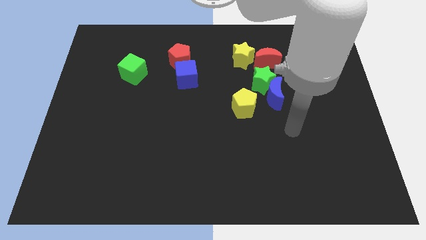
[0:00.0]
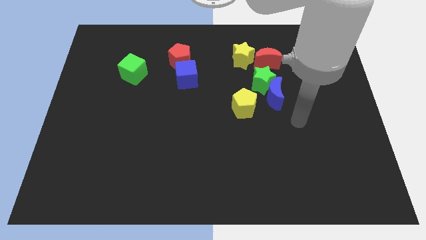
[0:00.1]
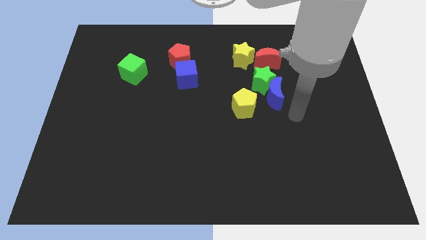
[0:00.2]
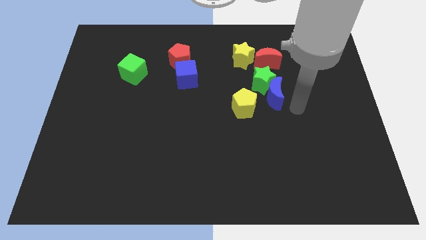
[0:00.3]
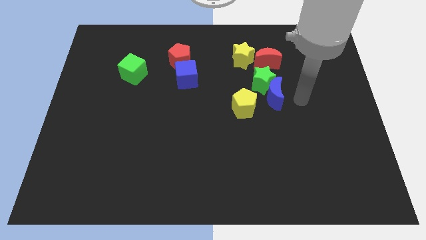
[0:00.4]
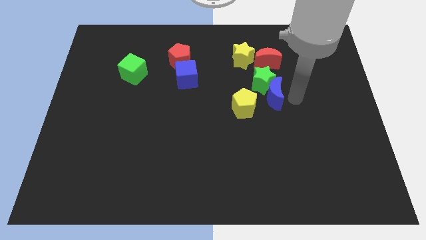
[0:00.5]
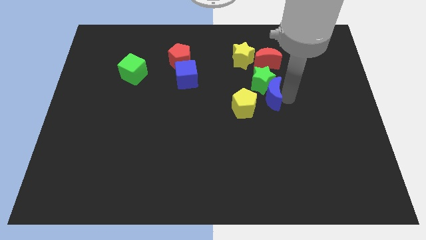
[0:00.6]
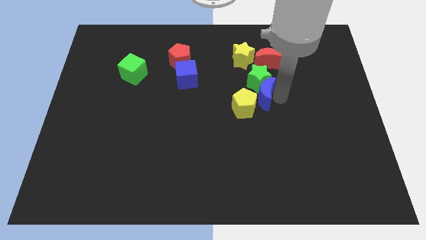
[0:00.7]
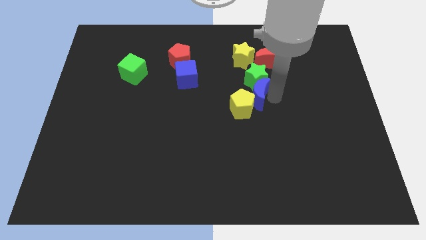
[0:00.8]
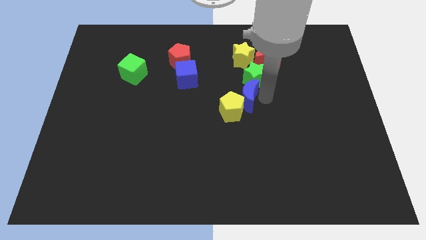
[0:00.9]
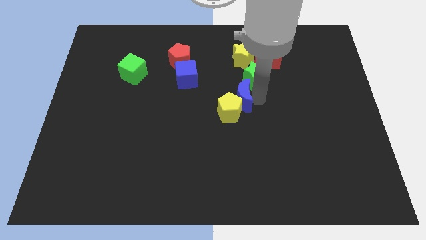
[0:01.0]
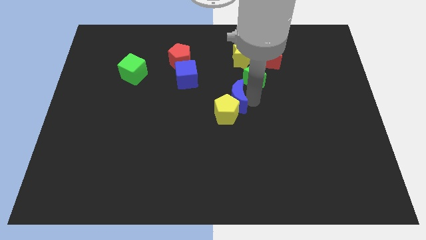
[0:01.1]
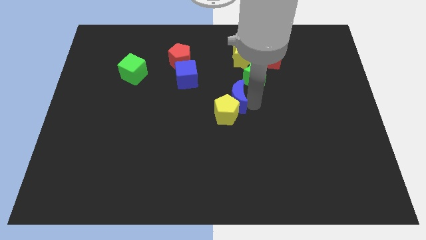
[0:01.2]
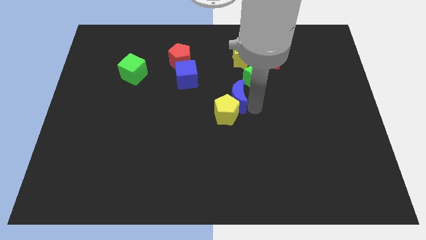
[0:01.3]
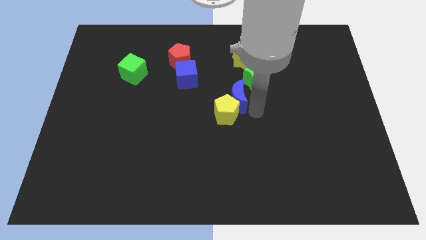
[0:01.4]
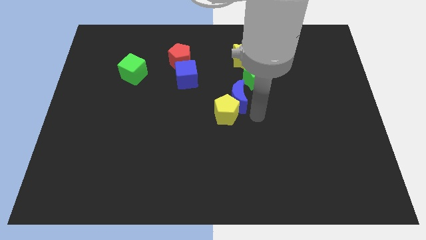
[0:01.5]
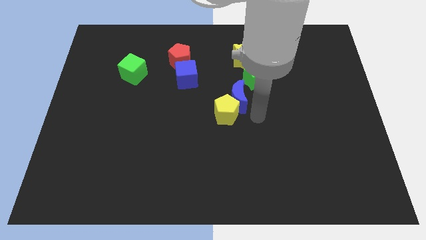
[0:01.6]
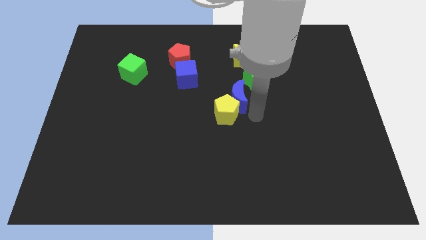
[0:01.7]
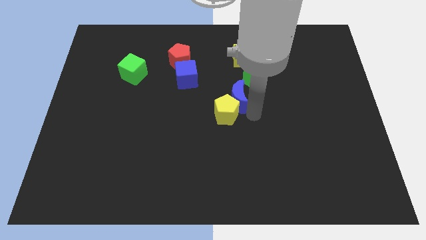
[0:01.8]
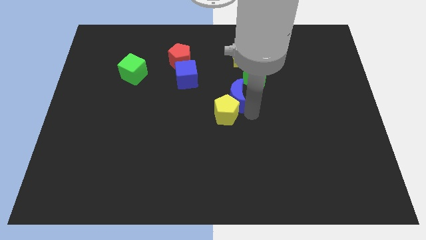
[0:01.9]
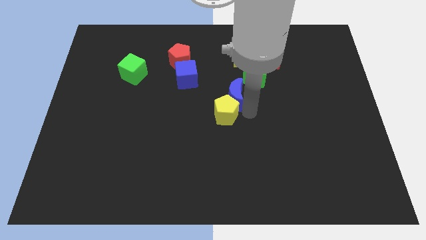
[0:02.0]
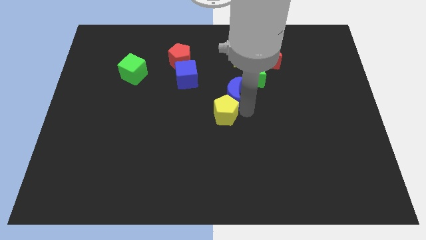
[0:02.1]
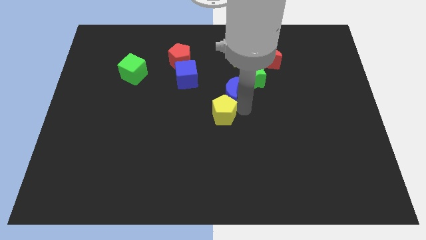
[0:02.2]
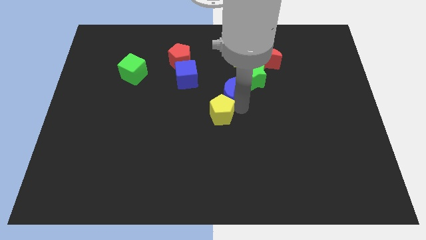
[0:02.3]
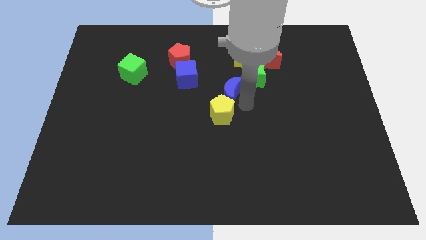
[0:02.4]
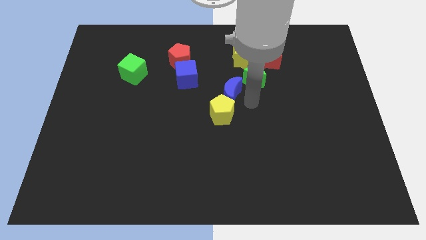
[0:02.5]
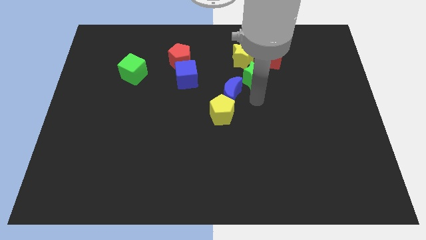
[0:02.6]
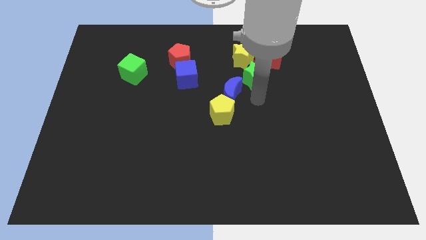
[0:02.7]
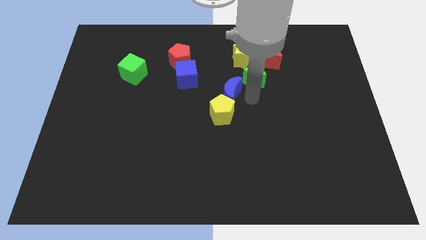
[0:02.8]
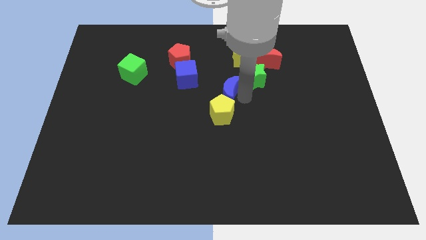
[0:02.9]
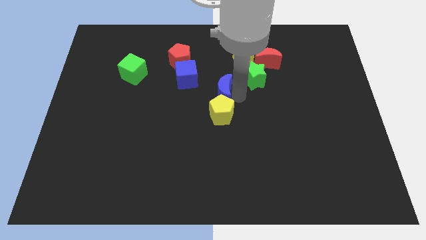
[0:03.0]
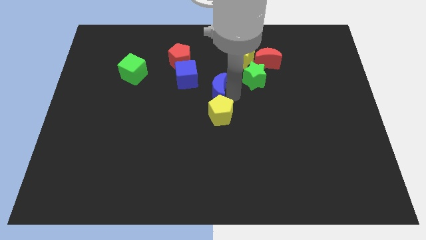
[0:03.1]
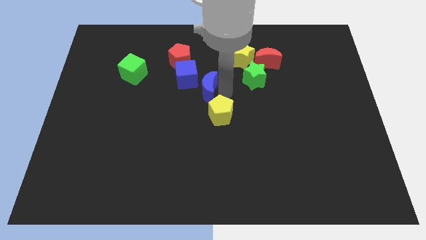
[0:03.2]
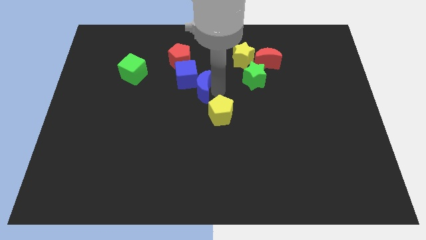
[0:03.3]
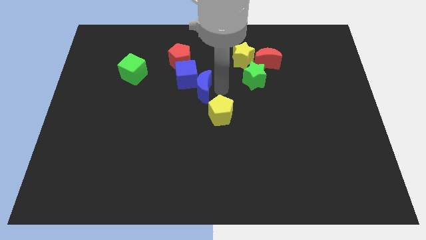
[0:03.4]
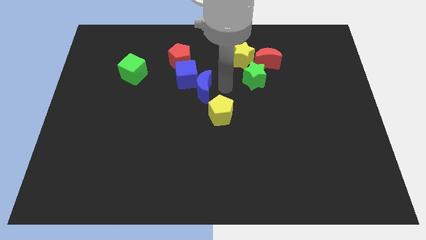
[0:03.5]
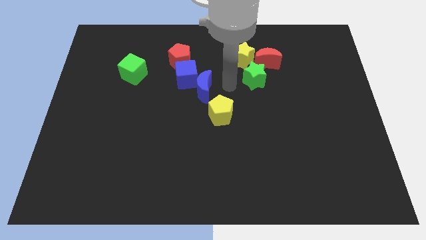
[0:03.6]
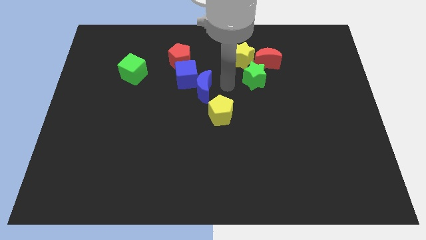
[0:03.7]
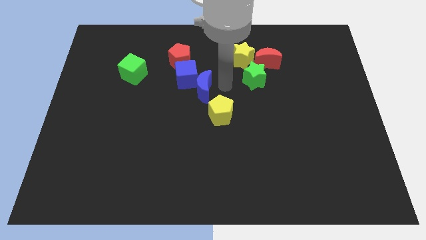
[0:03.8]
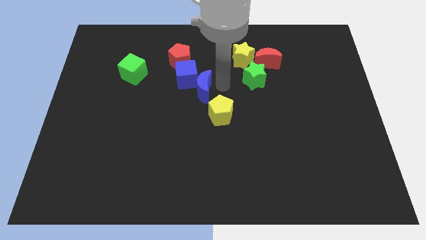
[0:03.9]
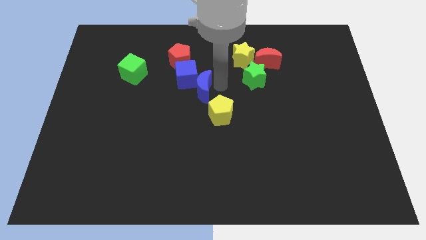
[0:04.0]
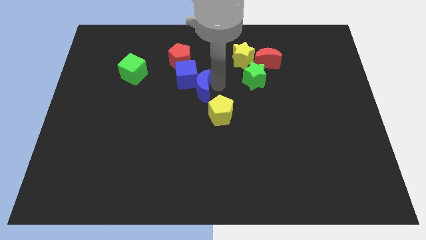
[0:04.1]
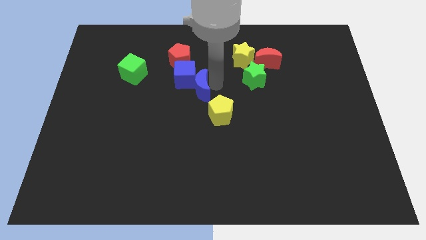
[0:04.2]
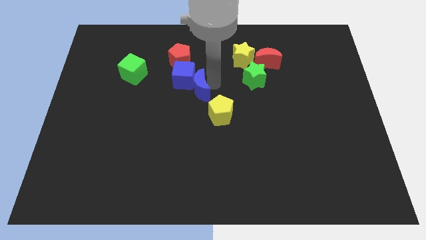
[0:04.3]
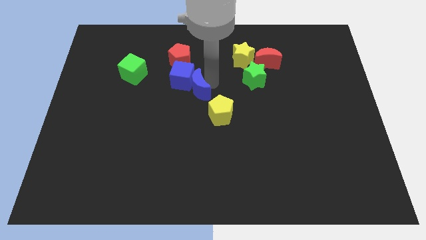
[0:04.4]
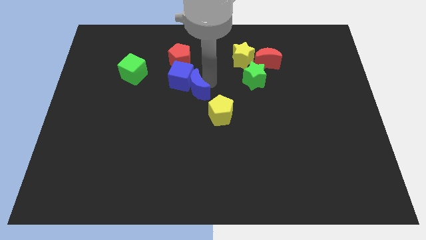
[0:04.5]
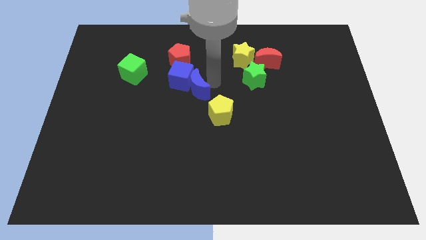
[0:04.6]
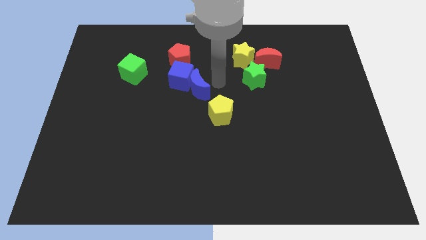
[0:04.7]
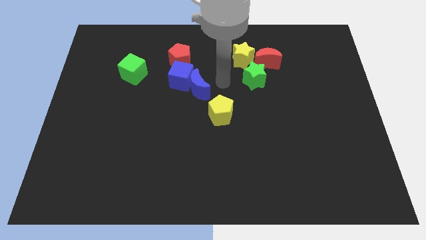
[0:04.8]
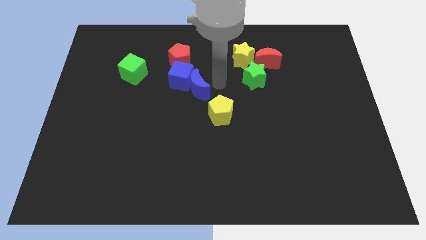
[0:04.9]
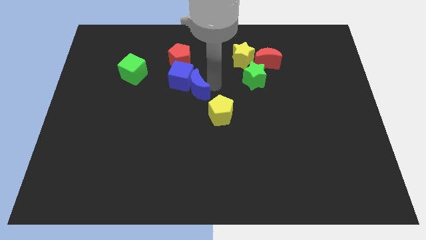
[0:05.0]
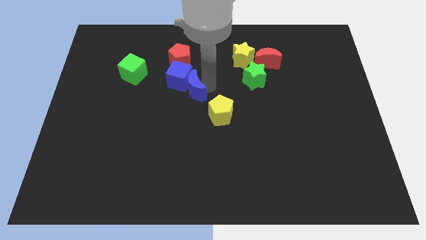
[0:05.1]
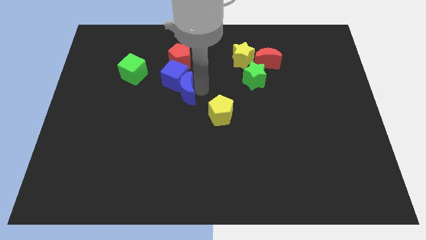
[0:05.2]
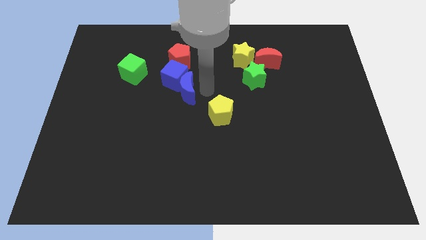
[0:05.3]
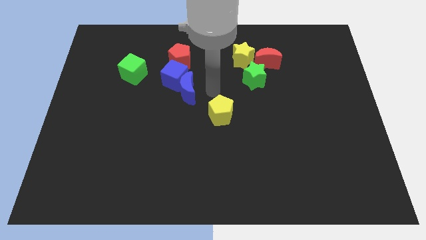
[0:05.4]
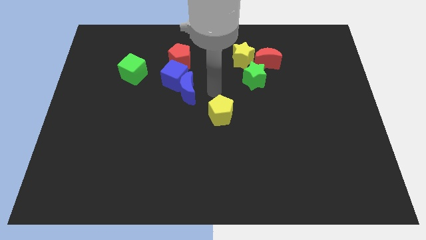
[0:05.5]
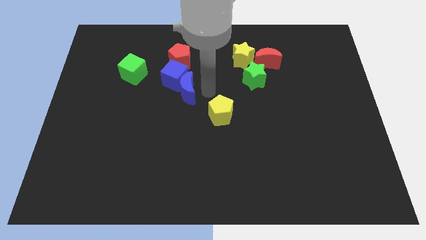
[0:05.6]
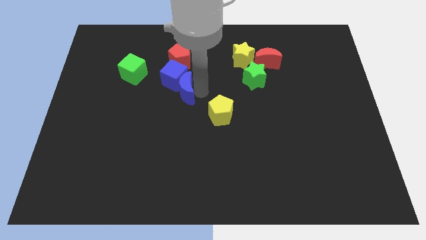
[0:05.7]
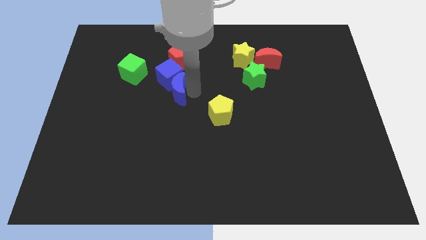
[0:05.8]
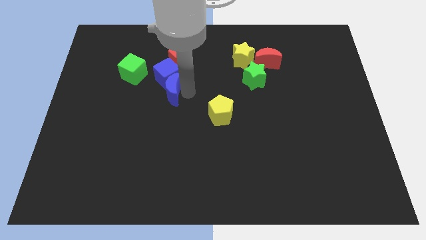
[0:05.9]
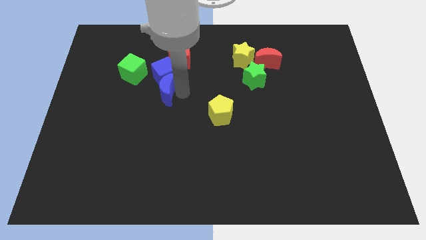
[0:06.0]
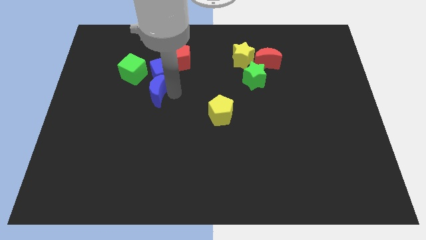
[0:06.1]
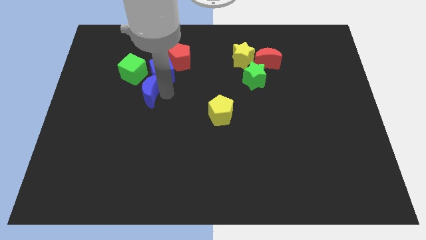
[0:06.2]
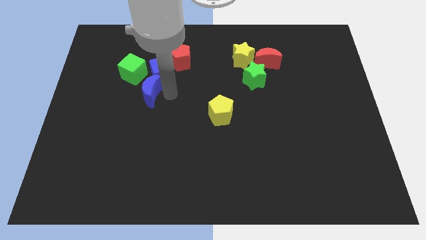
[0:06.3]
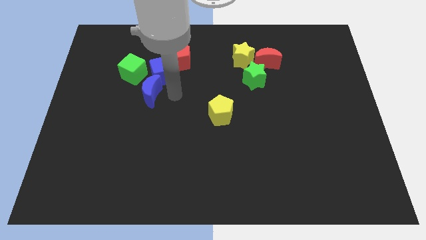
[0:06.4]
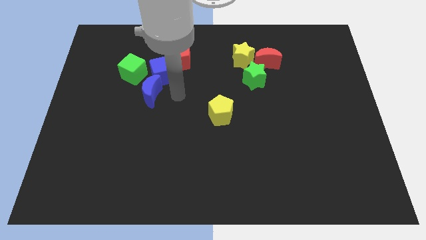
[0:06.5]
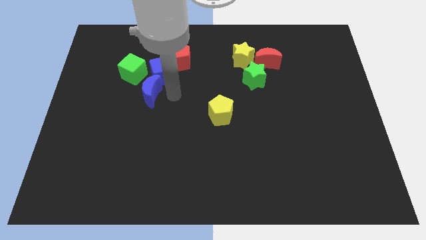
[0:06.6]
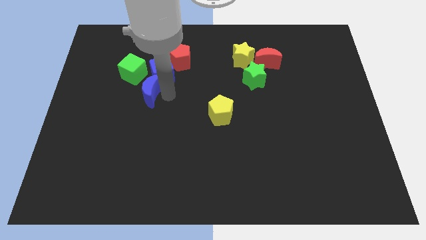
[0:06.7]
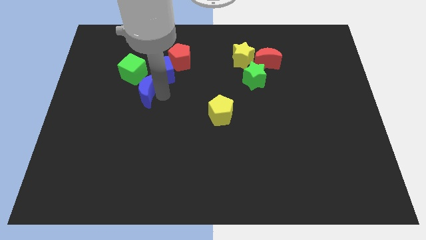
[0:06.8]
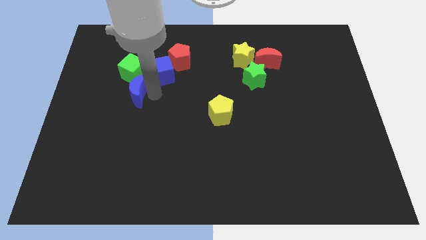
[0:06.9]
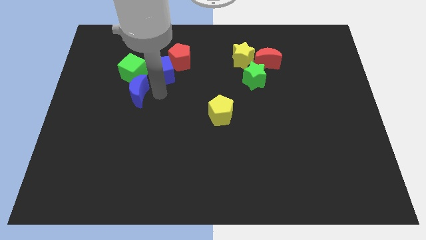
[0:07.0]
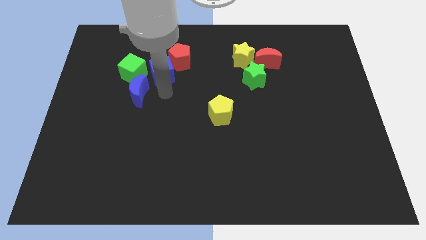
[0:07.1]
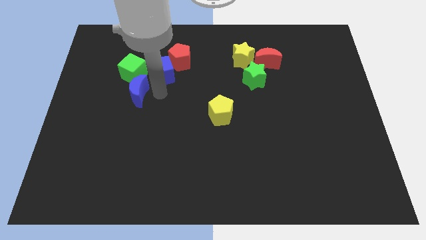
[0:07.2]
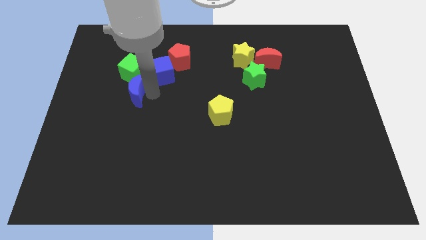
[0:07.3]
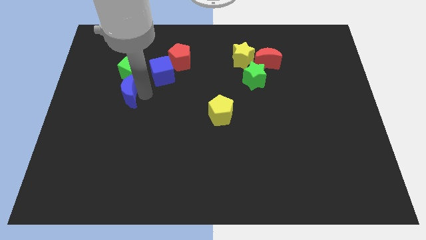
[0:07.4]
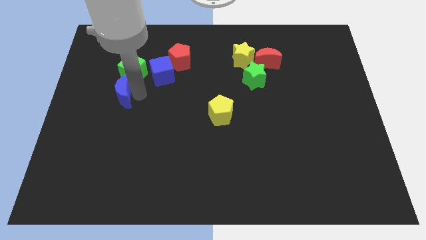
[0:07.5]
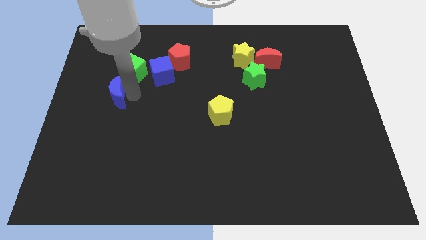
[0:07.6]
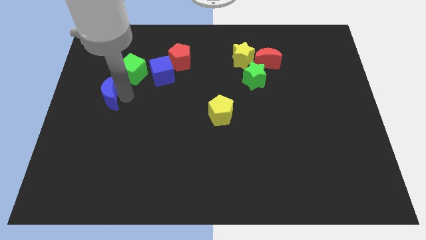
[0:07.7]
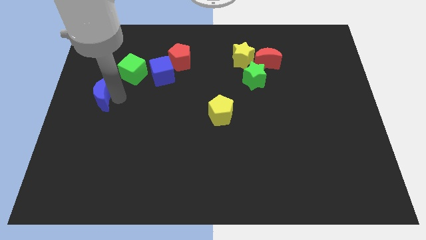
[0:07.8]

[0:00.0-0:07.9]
move the blue moon to the center left
